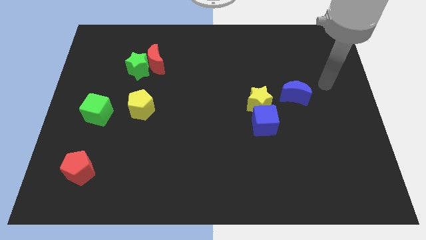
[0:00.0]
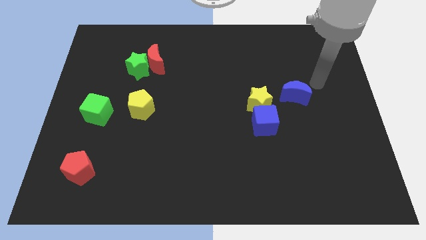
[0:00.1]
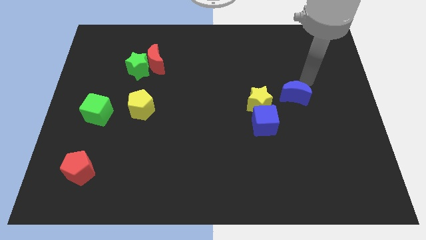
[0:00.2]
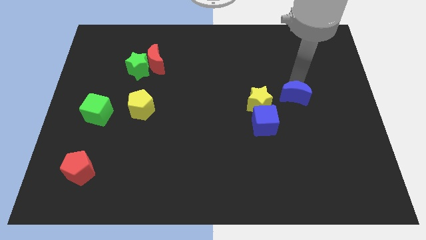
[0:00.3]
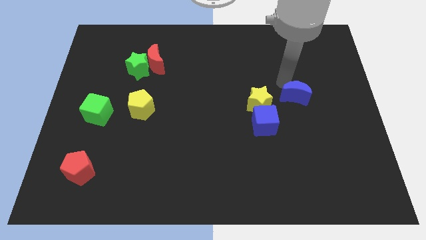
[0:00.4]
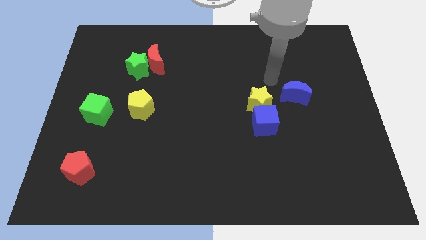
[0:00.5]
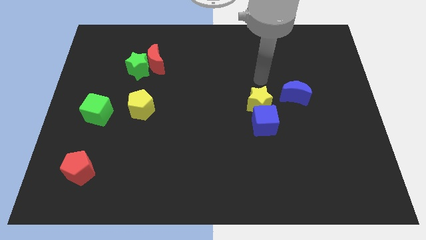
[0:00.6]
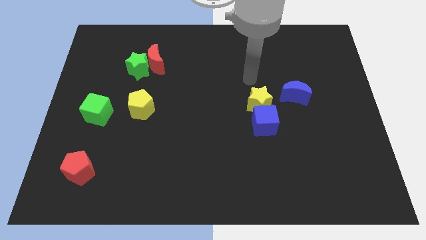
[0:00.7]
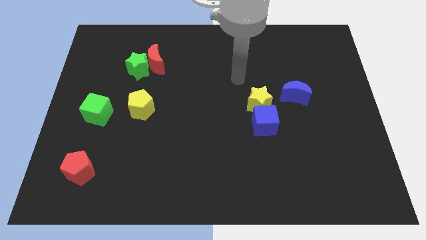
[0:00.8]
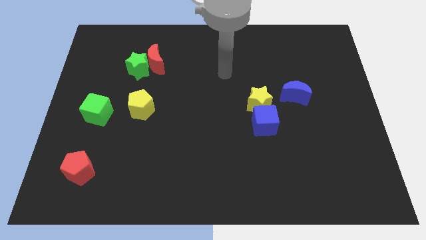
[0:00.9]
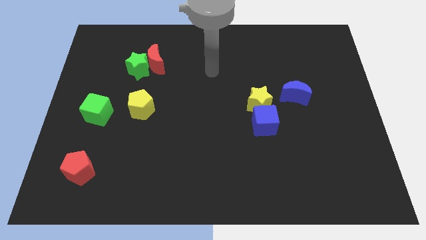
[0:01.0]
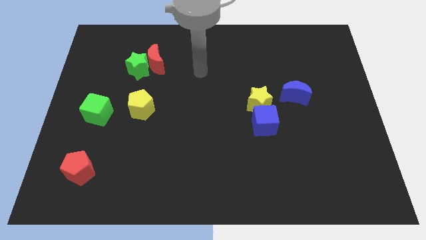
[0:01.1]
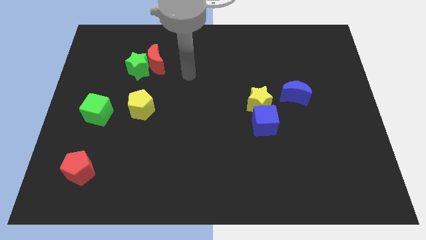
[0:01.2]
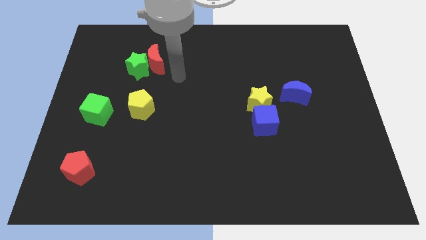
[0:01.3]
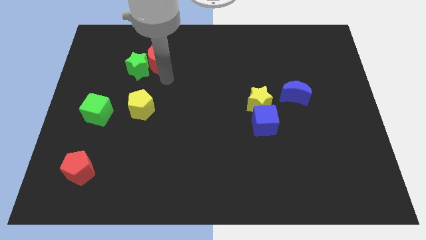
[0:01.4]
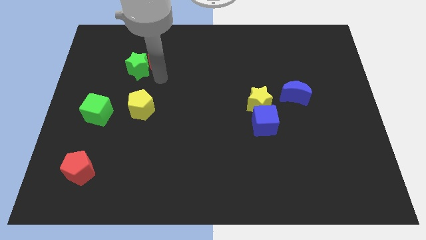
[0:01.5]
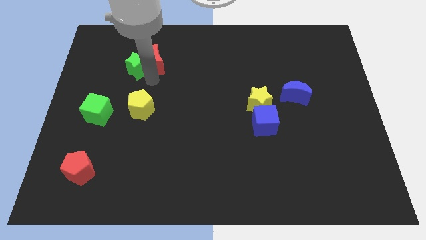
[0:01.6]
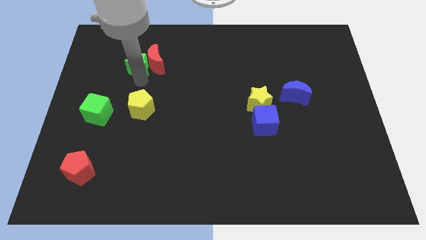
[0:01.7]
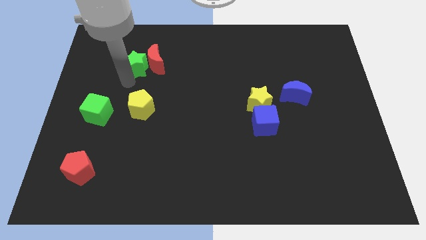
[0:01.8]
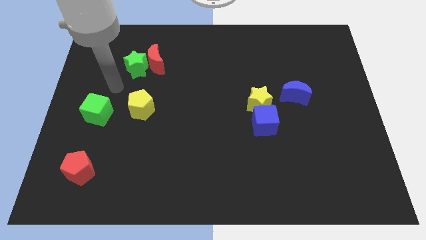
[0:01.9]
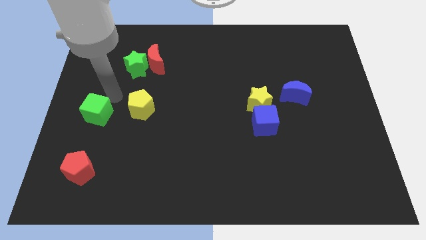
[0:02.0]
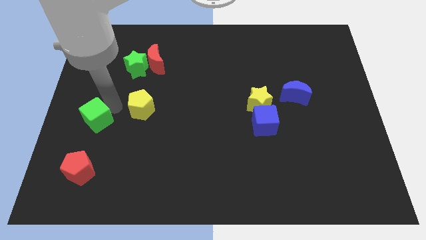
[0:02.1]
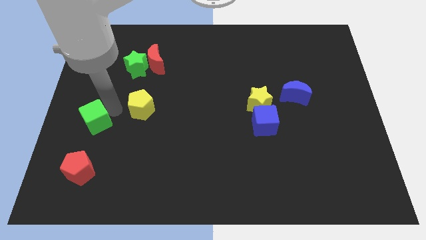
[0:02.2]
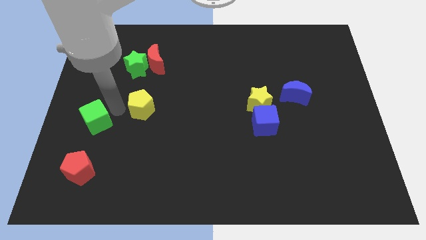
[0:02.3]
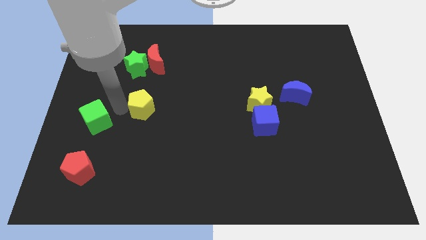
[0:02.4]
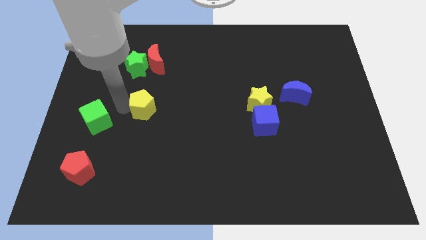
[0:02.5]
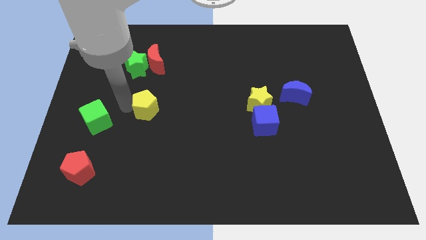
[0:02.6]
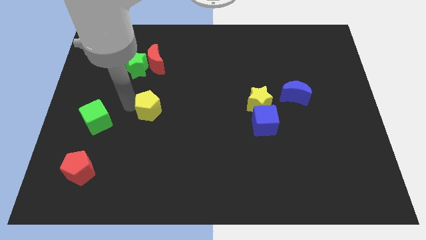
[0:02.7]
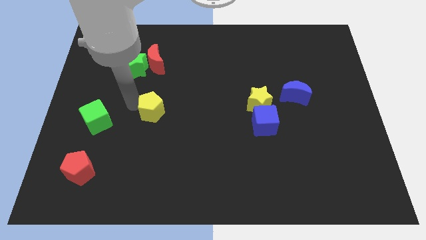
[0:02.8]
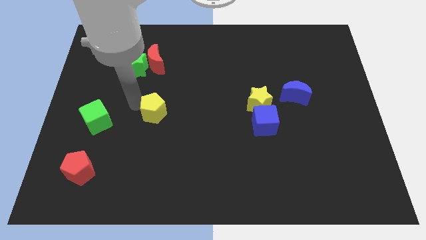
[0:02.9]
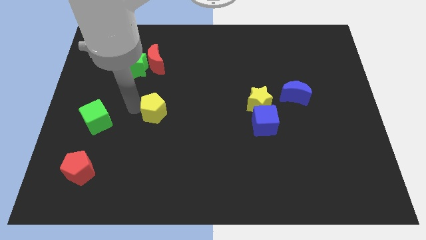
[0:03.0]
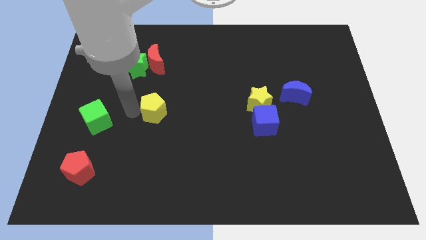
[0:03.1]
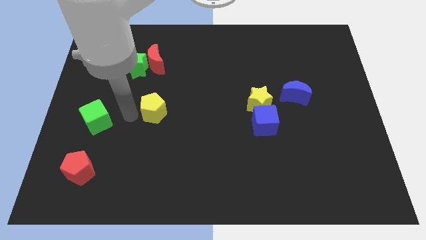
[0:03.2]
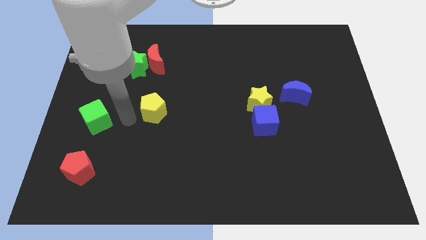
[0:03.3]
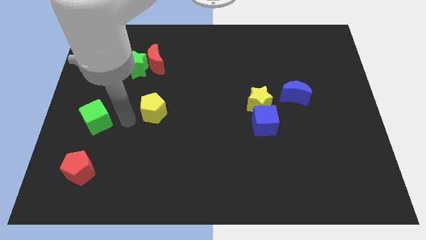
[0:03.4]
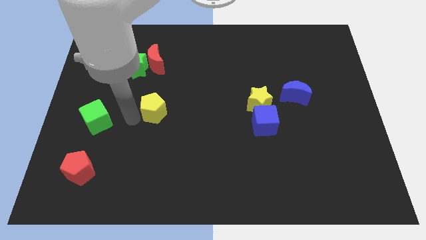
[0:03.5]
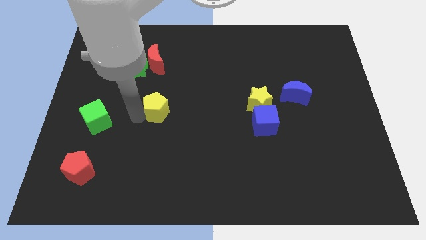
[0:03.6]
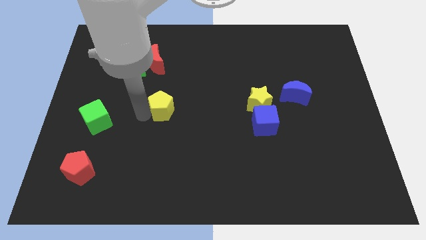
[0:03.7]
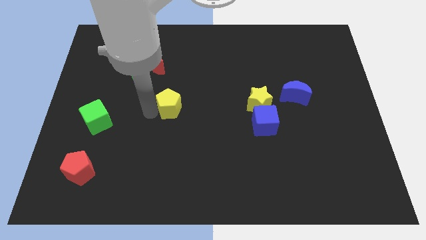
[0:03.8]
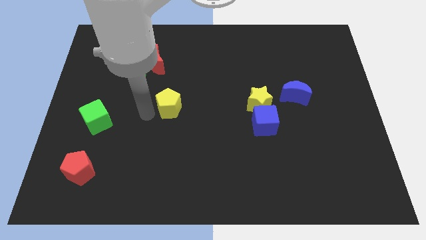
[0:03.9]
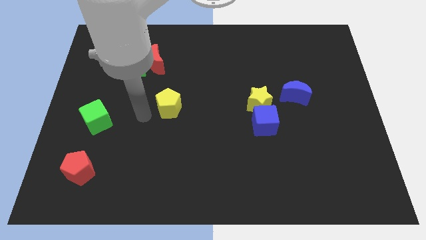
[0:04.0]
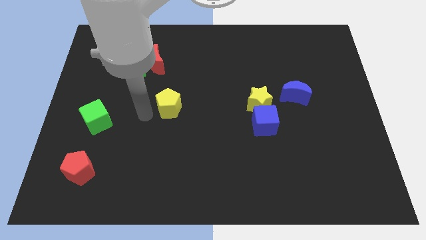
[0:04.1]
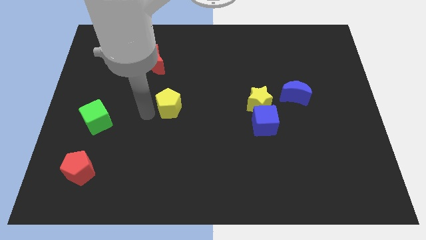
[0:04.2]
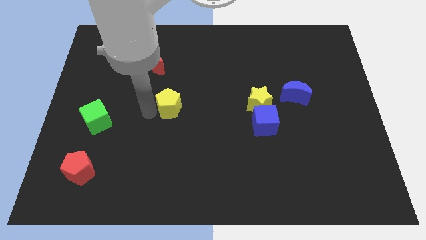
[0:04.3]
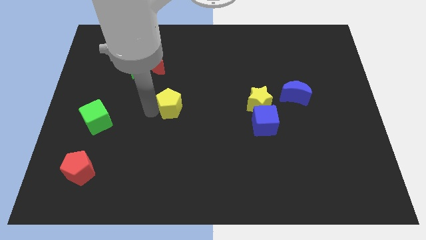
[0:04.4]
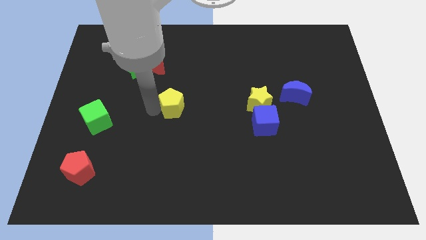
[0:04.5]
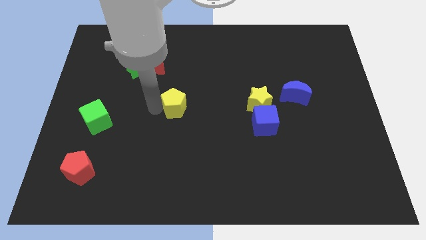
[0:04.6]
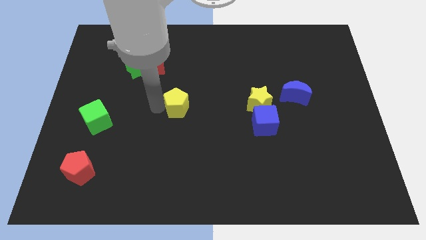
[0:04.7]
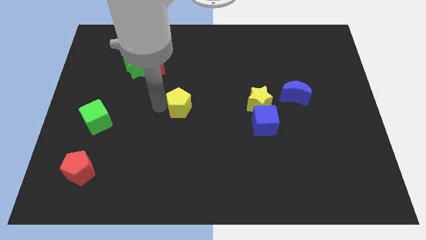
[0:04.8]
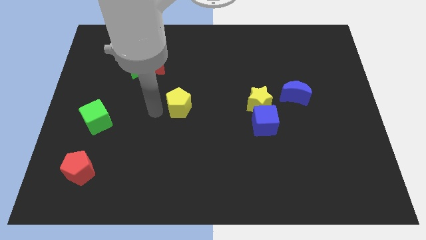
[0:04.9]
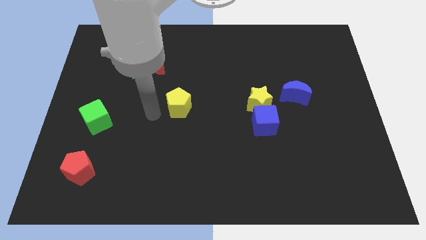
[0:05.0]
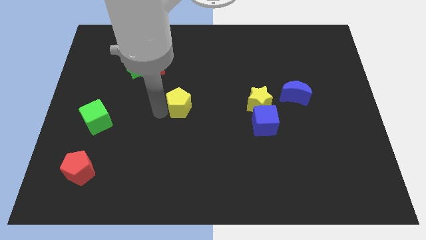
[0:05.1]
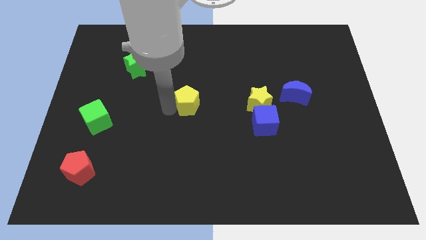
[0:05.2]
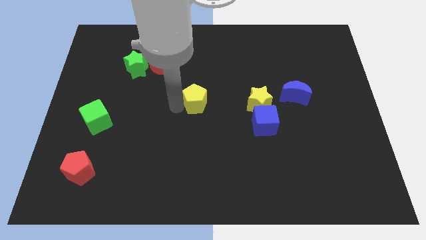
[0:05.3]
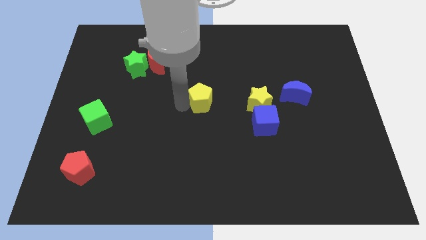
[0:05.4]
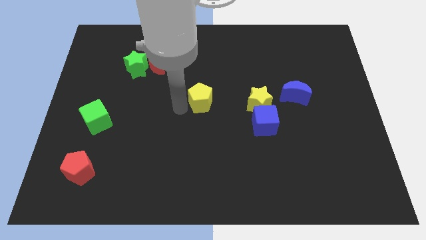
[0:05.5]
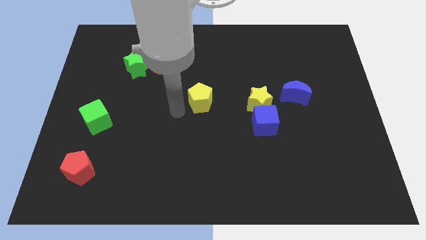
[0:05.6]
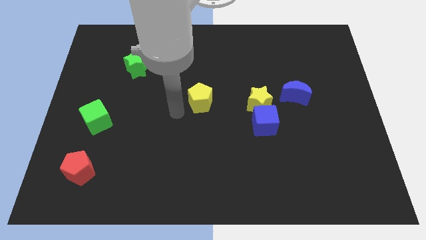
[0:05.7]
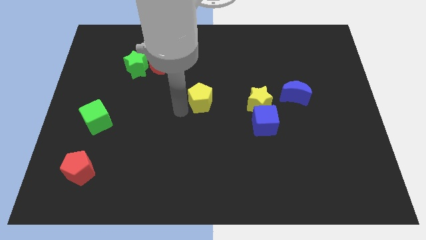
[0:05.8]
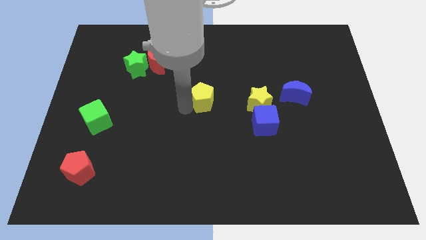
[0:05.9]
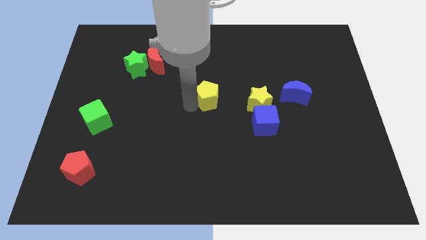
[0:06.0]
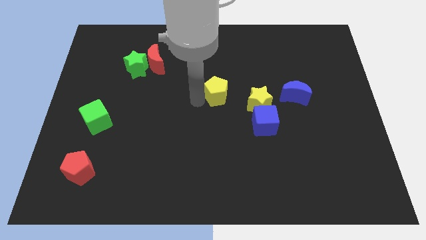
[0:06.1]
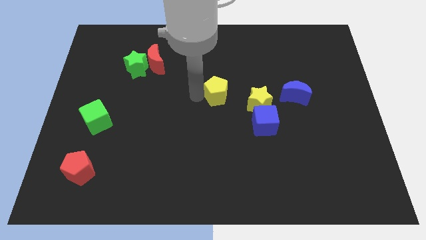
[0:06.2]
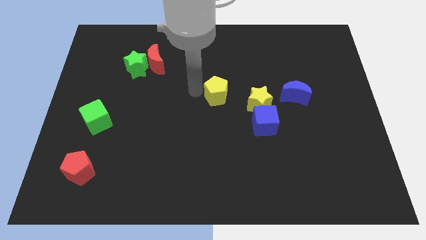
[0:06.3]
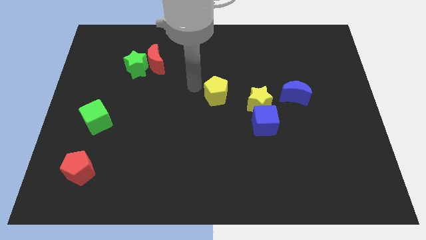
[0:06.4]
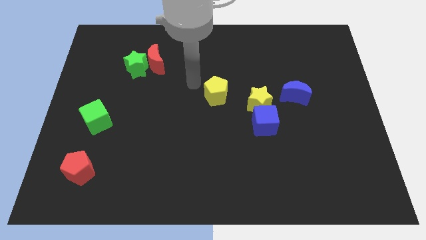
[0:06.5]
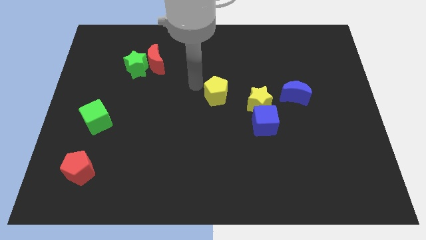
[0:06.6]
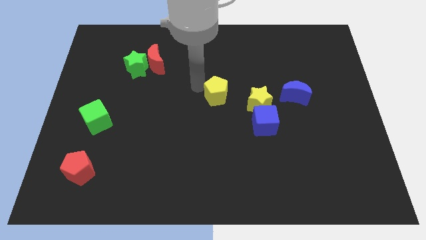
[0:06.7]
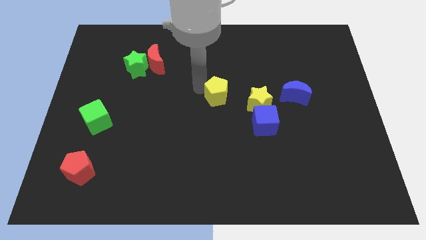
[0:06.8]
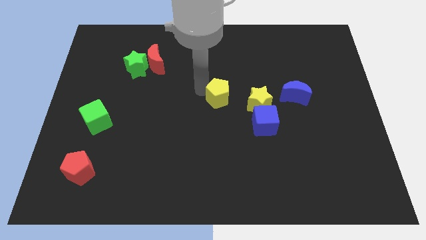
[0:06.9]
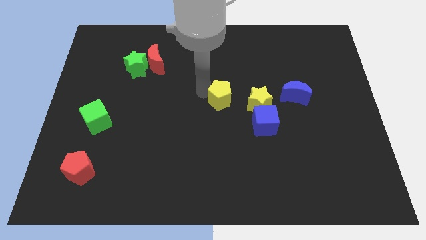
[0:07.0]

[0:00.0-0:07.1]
put the yellow pentagon diagonally up and to the left of the blue cube

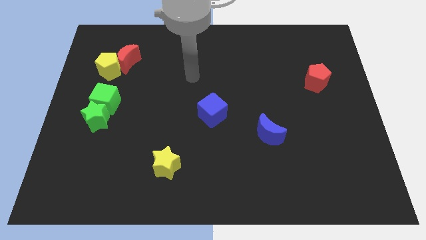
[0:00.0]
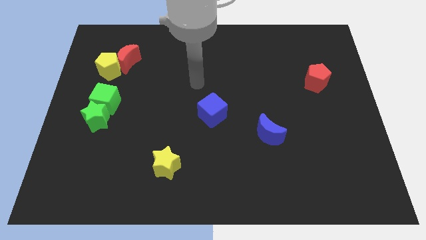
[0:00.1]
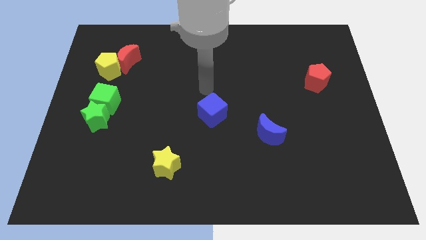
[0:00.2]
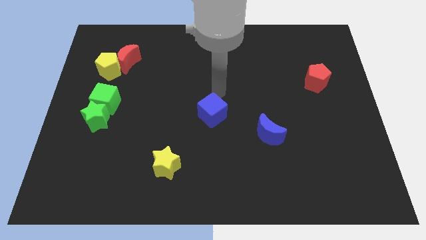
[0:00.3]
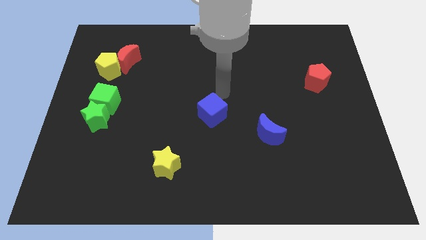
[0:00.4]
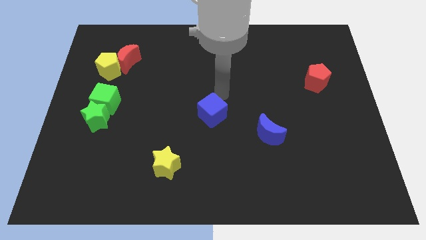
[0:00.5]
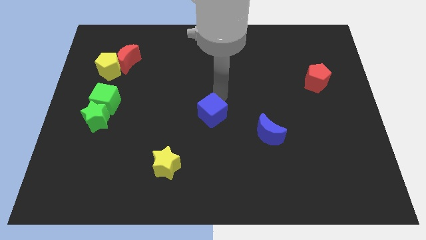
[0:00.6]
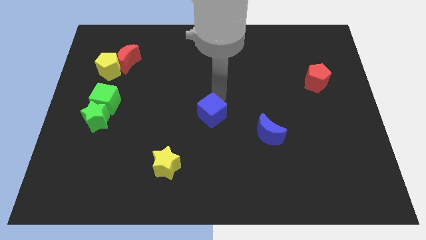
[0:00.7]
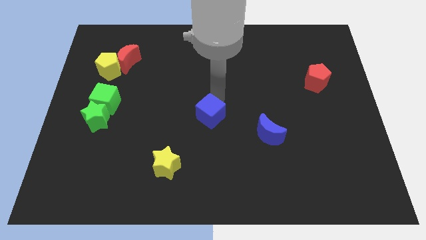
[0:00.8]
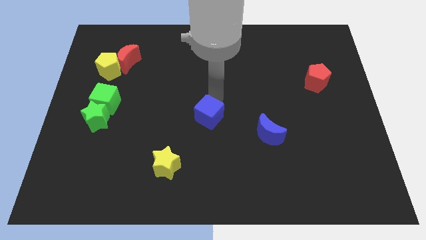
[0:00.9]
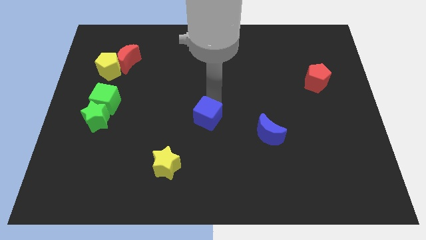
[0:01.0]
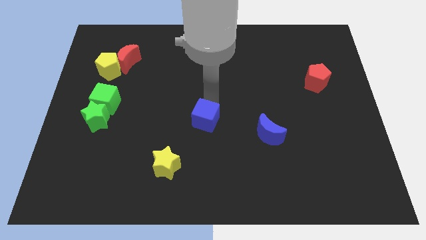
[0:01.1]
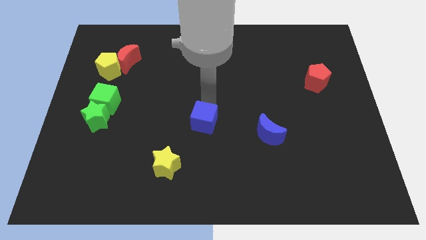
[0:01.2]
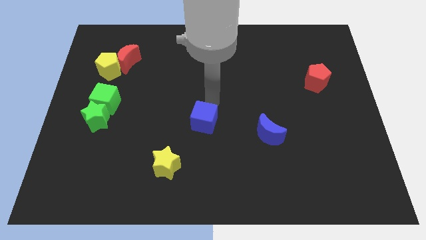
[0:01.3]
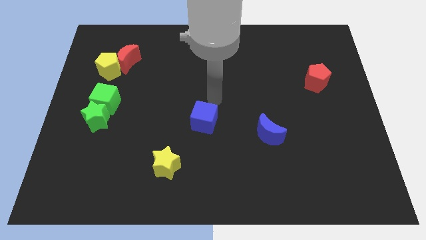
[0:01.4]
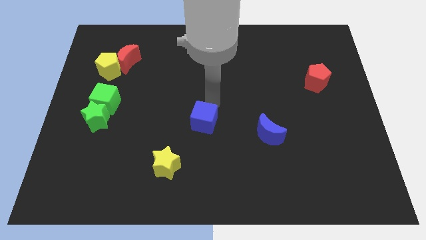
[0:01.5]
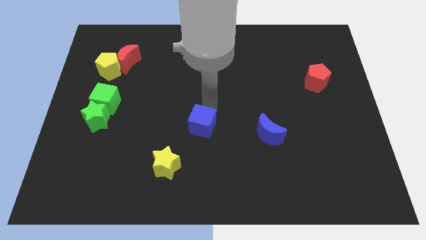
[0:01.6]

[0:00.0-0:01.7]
move the blue cube diagonally up and to the right of the yellow star
